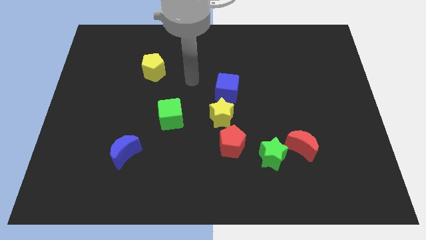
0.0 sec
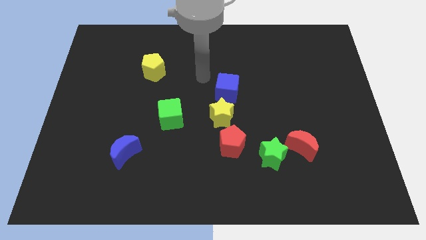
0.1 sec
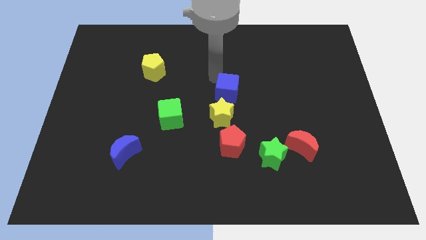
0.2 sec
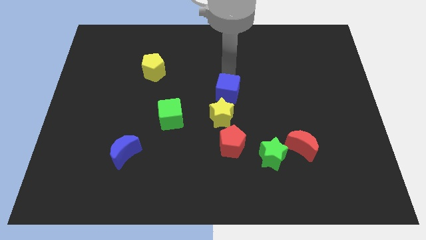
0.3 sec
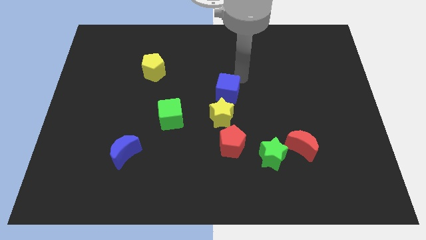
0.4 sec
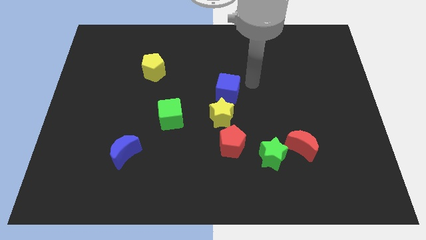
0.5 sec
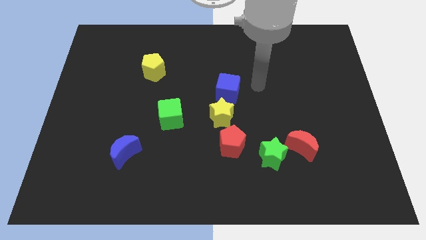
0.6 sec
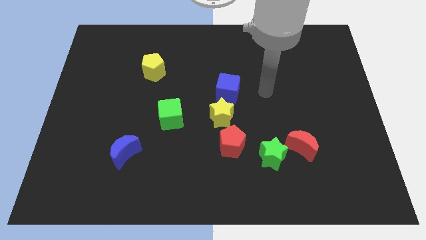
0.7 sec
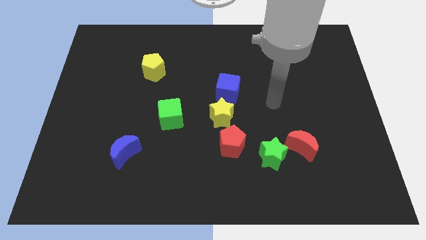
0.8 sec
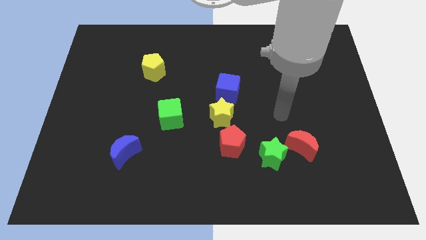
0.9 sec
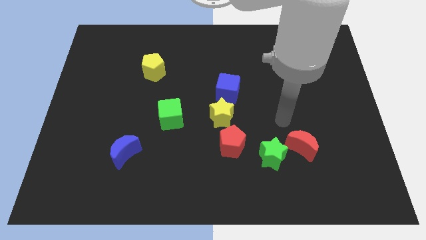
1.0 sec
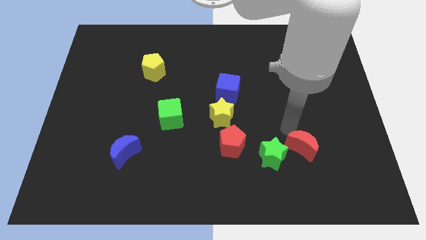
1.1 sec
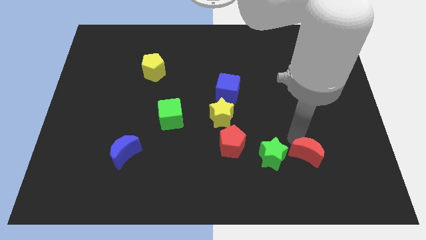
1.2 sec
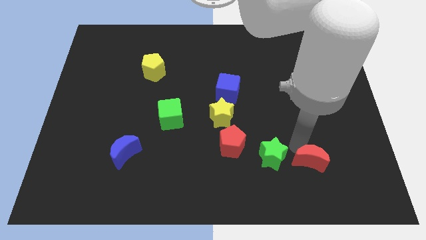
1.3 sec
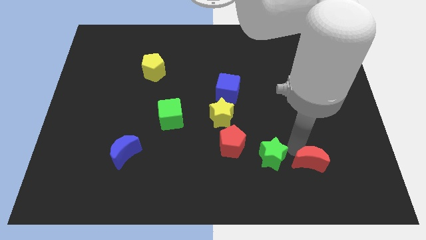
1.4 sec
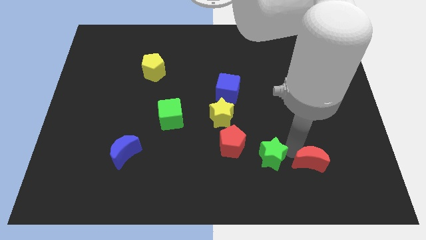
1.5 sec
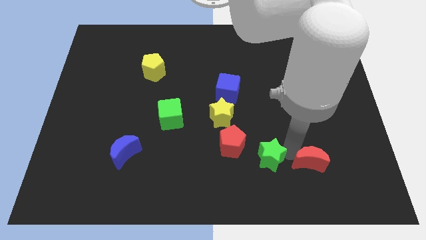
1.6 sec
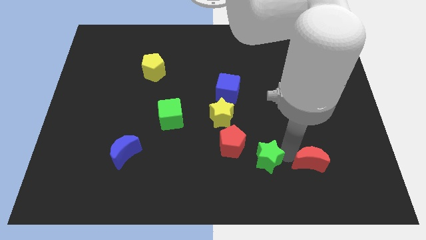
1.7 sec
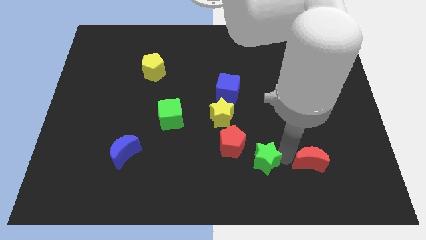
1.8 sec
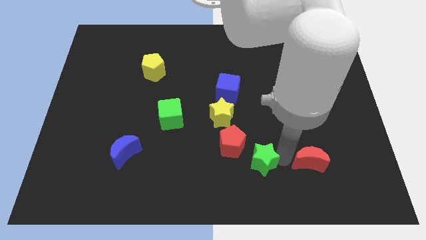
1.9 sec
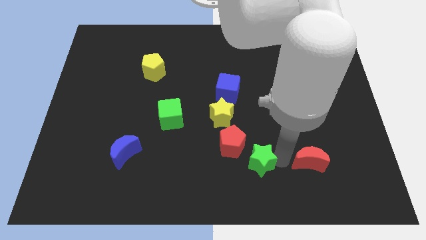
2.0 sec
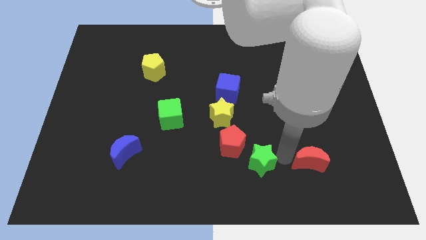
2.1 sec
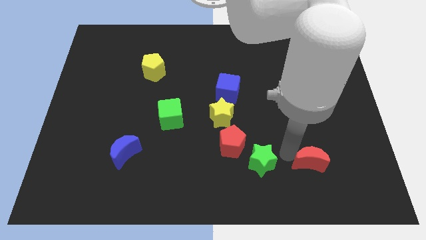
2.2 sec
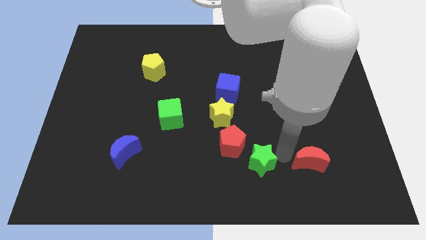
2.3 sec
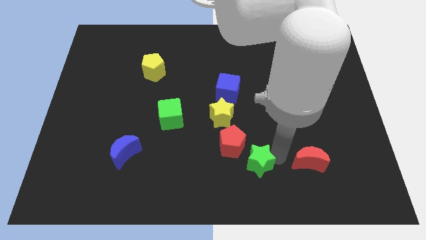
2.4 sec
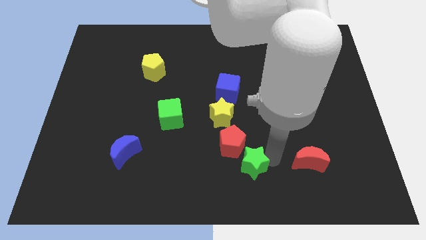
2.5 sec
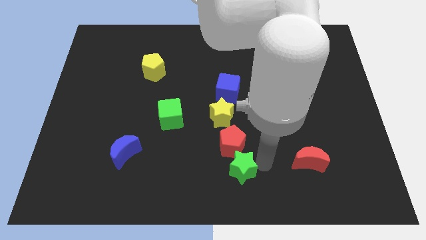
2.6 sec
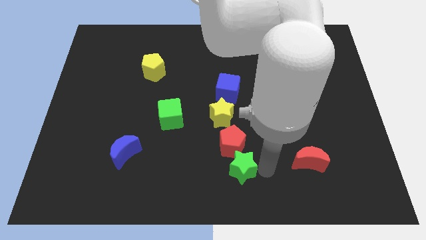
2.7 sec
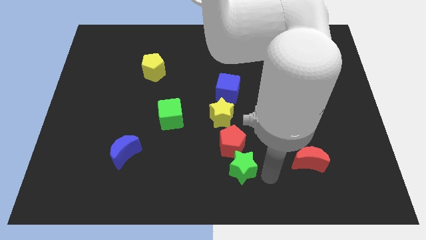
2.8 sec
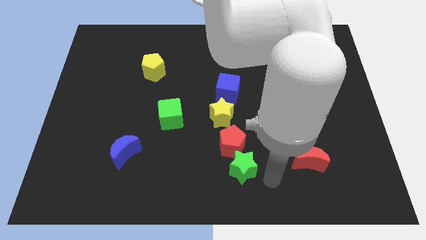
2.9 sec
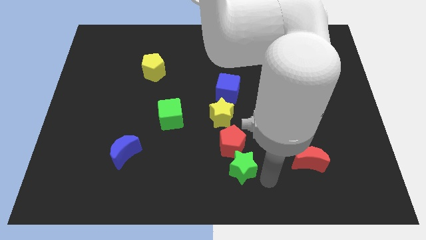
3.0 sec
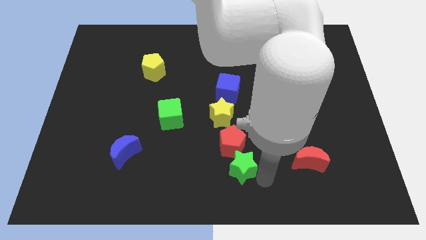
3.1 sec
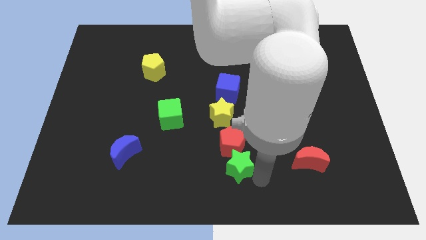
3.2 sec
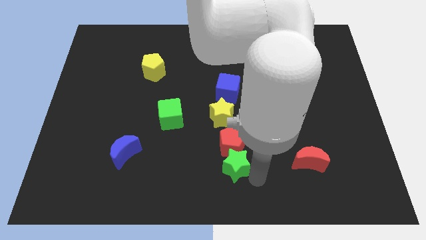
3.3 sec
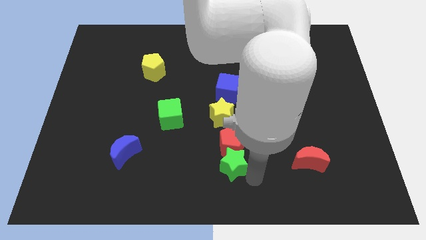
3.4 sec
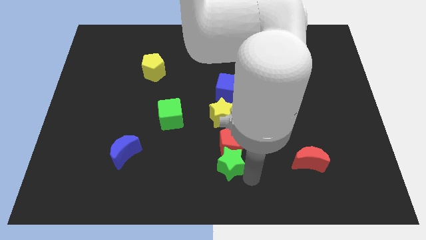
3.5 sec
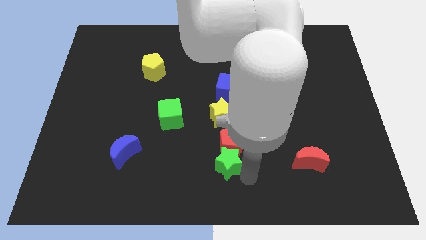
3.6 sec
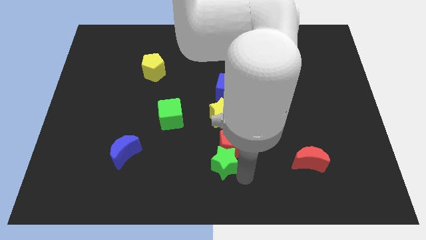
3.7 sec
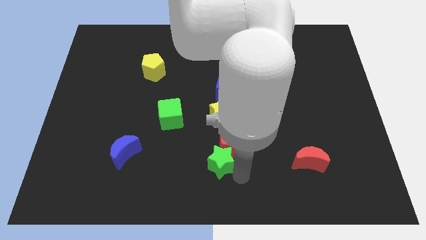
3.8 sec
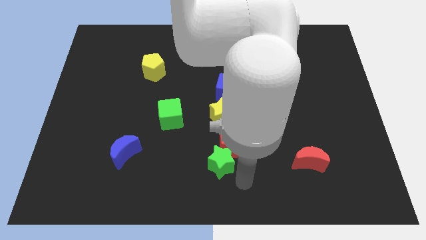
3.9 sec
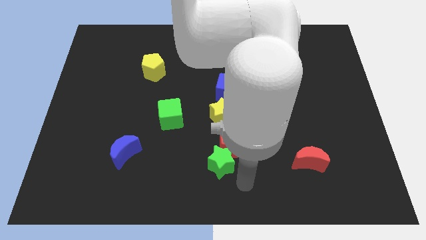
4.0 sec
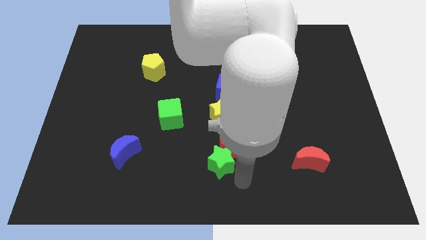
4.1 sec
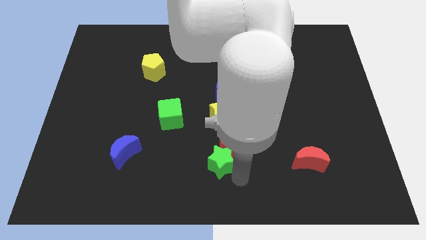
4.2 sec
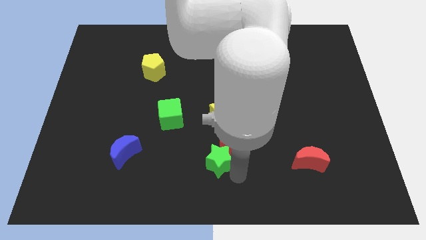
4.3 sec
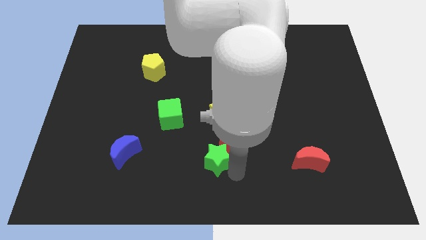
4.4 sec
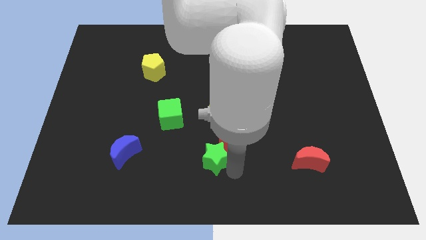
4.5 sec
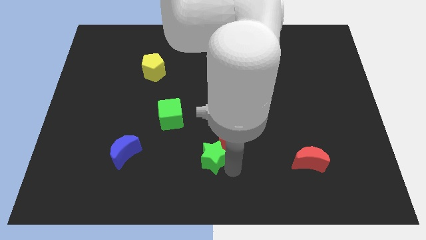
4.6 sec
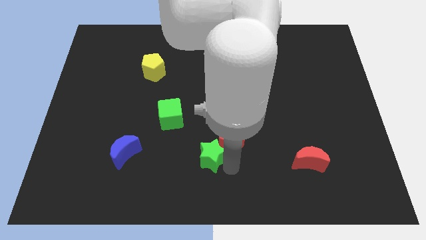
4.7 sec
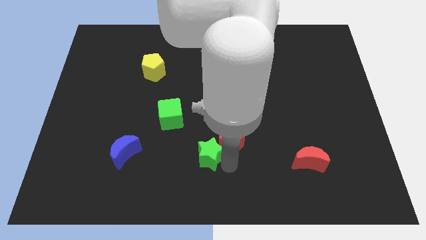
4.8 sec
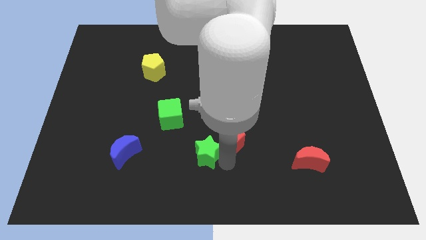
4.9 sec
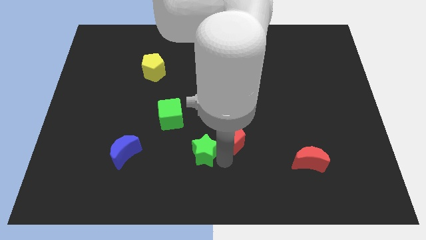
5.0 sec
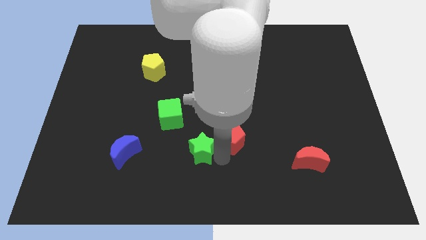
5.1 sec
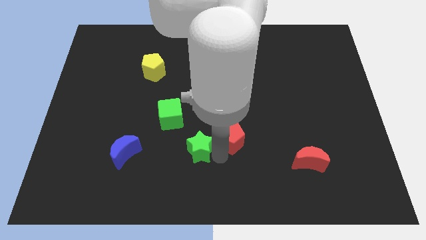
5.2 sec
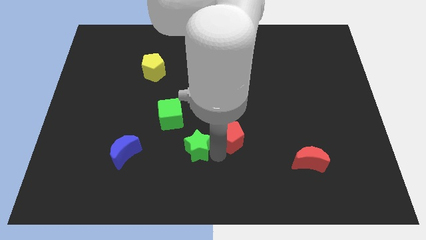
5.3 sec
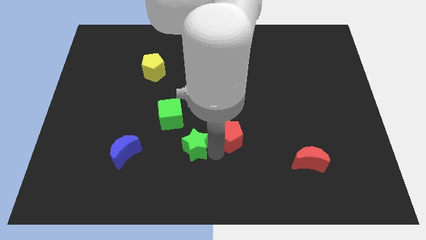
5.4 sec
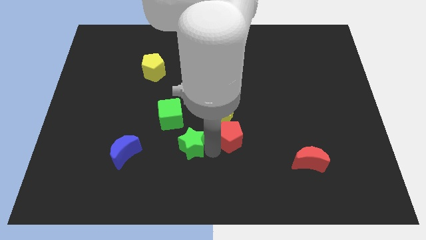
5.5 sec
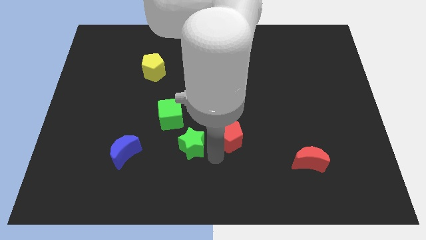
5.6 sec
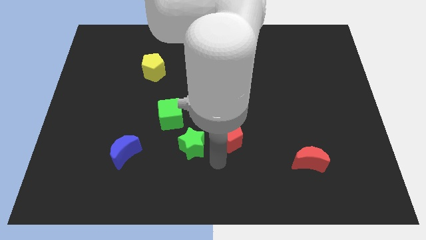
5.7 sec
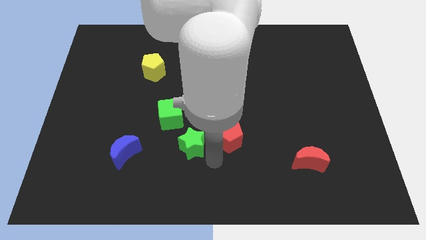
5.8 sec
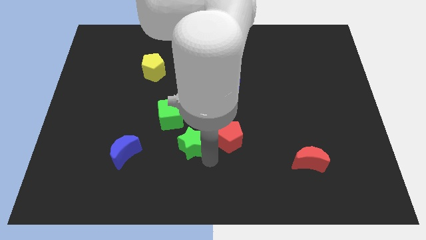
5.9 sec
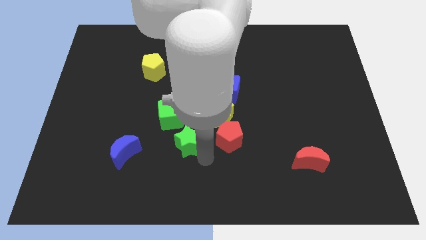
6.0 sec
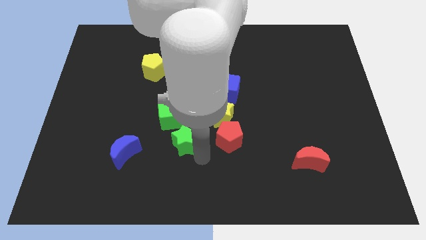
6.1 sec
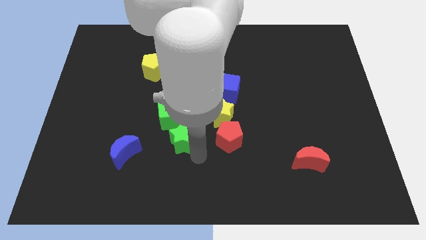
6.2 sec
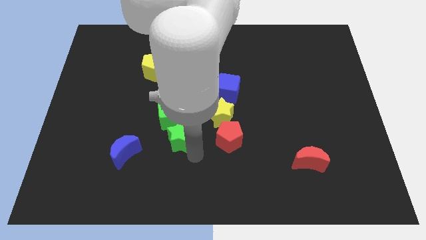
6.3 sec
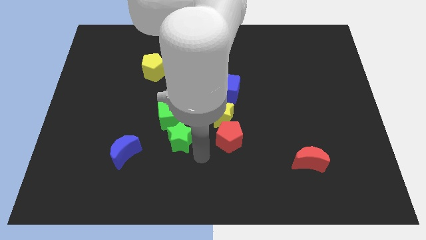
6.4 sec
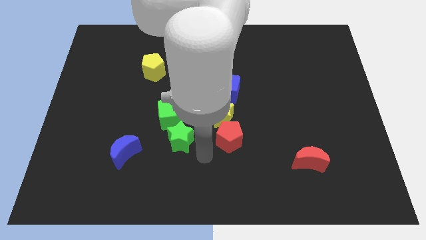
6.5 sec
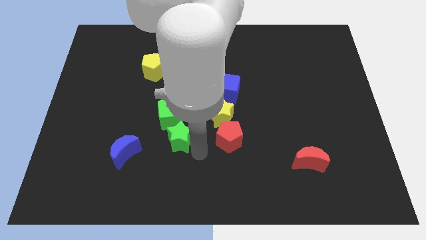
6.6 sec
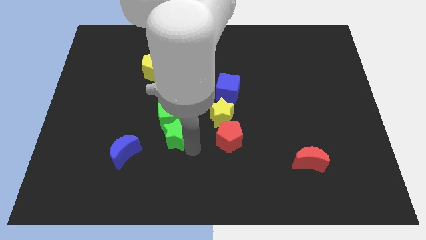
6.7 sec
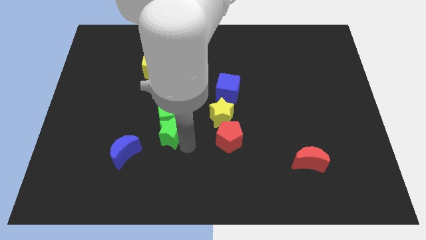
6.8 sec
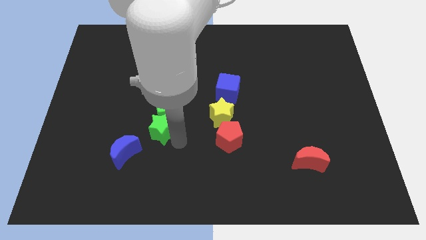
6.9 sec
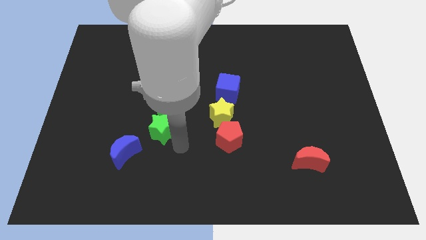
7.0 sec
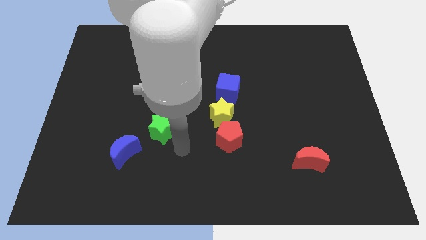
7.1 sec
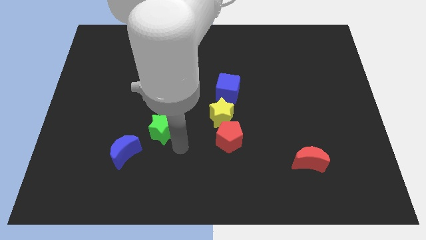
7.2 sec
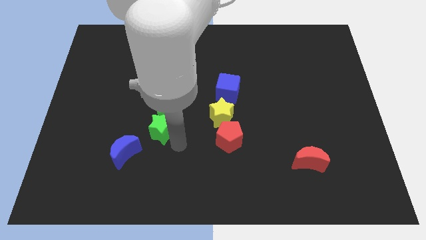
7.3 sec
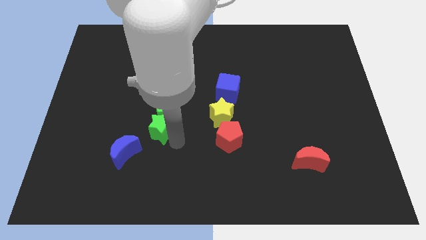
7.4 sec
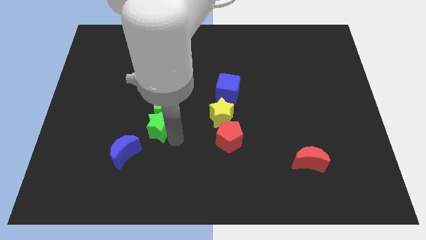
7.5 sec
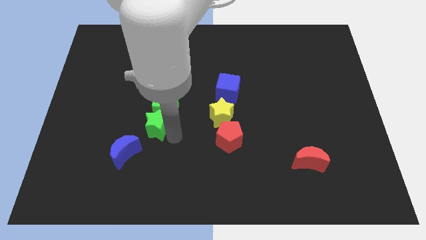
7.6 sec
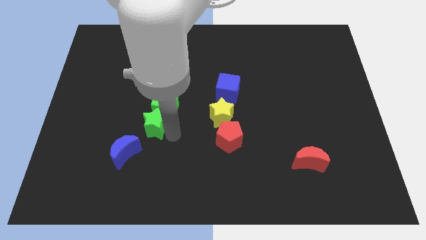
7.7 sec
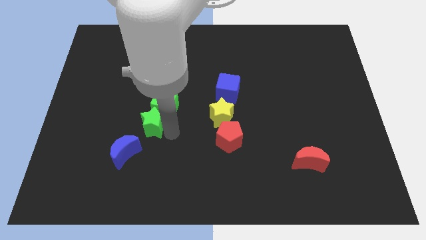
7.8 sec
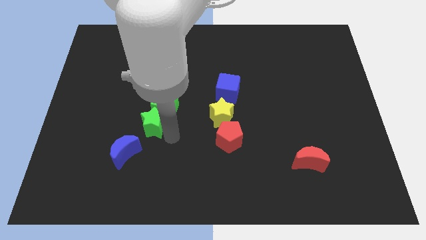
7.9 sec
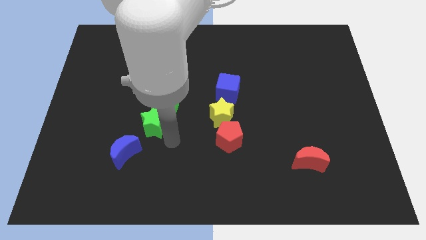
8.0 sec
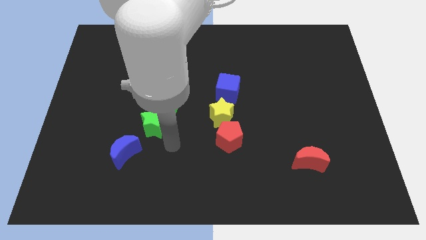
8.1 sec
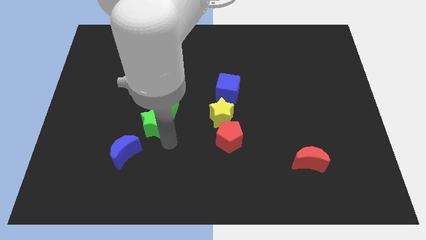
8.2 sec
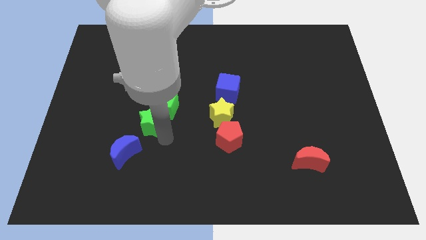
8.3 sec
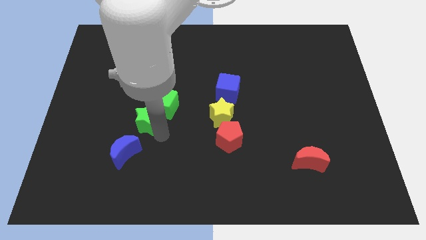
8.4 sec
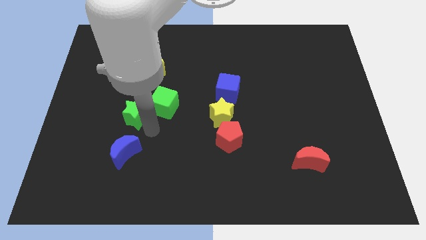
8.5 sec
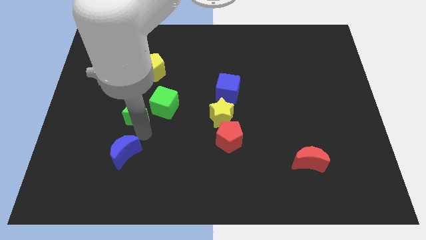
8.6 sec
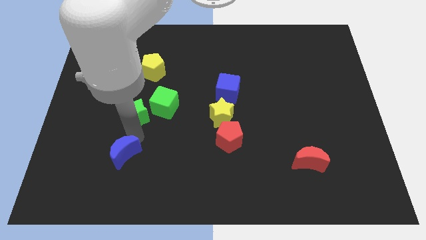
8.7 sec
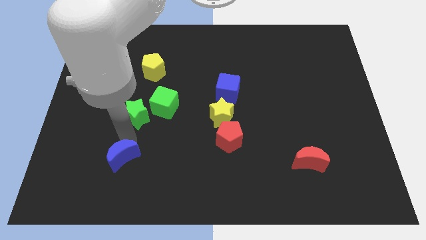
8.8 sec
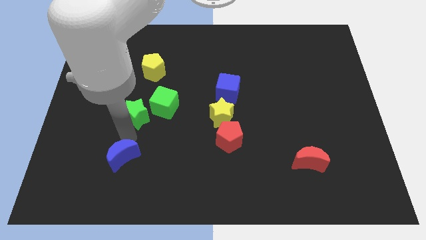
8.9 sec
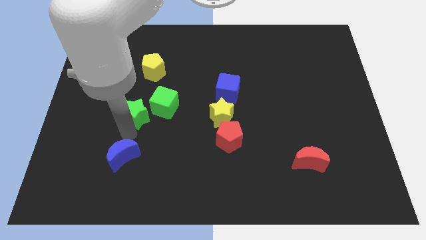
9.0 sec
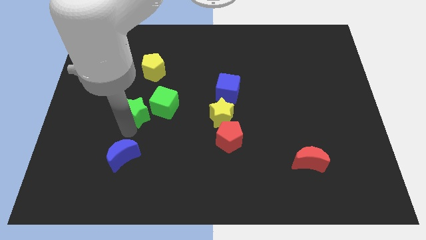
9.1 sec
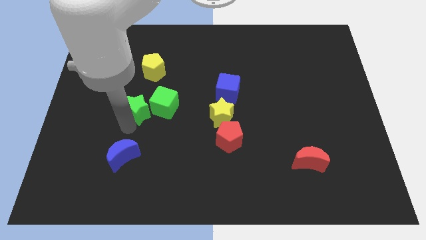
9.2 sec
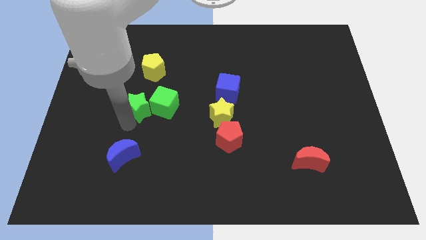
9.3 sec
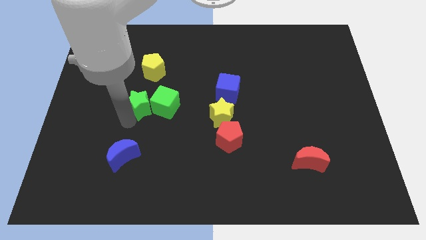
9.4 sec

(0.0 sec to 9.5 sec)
put the green star diagonally up and to the left of the green cube
